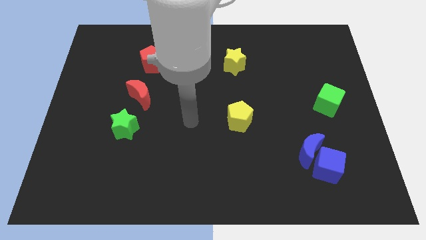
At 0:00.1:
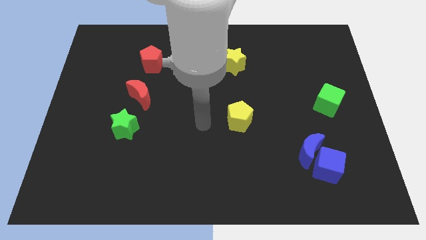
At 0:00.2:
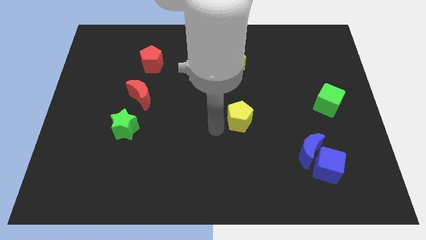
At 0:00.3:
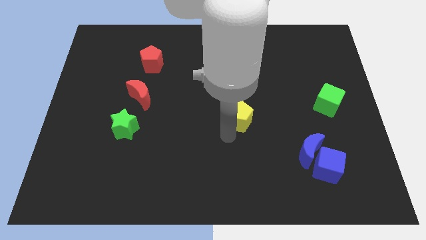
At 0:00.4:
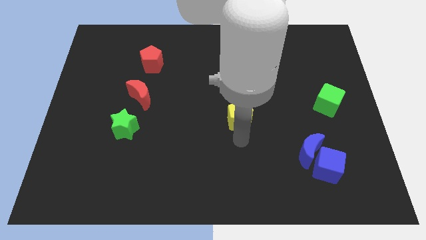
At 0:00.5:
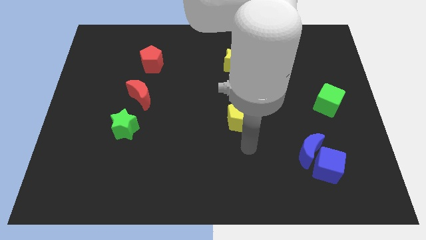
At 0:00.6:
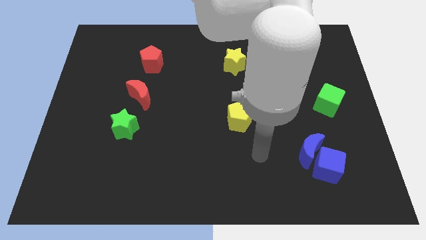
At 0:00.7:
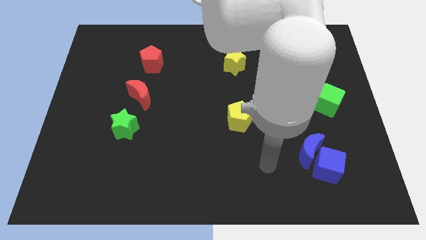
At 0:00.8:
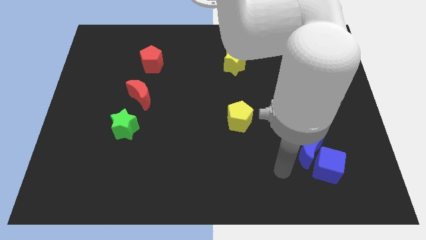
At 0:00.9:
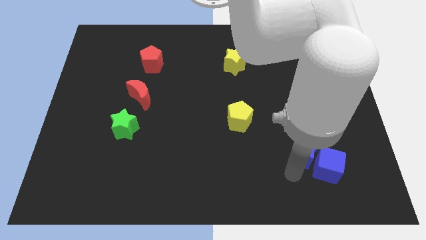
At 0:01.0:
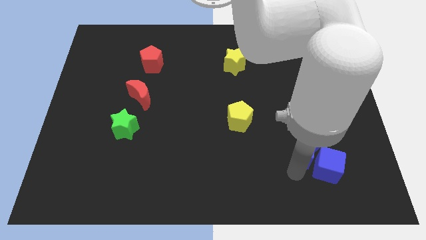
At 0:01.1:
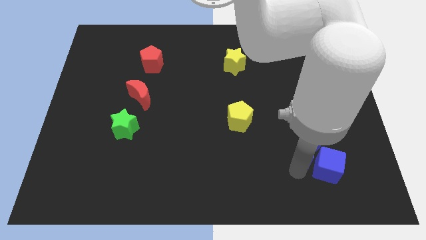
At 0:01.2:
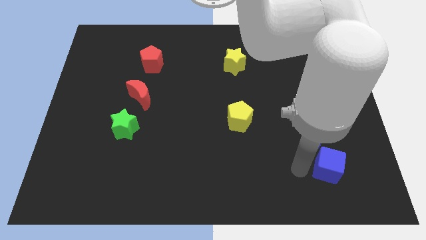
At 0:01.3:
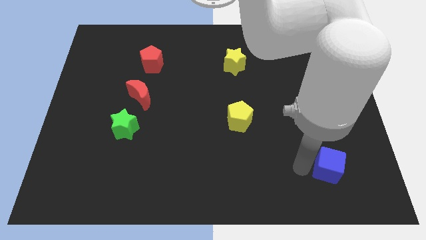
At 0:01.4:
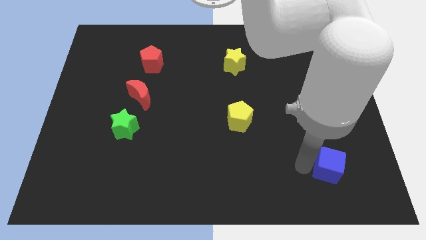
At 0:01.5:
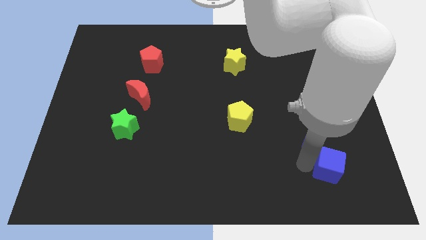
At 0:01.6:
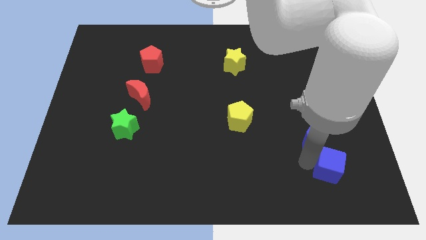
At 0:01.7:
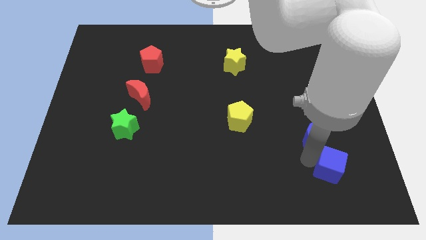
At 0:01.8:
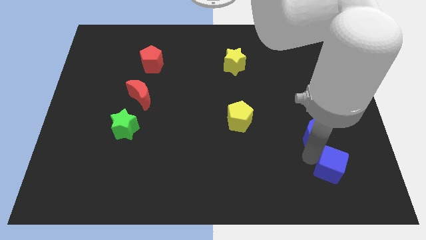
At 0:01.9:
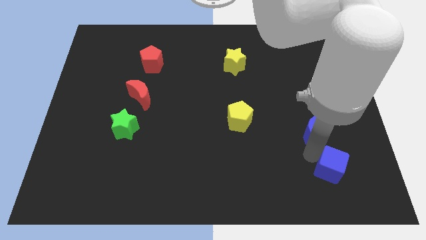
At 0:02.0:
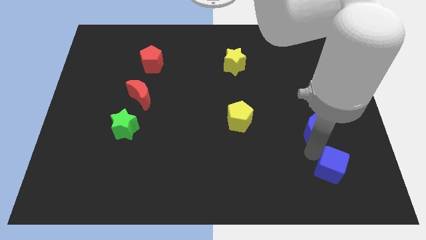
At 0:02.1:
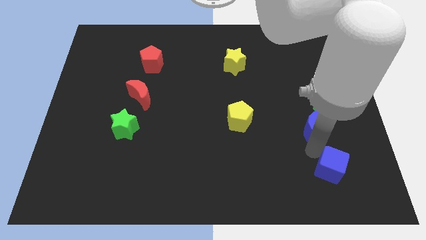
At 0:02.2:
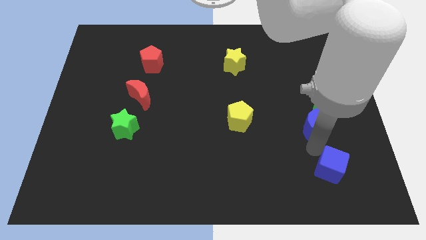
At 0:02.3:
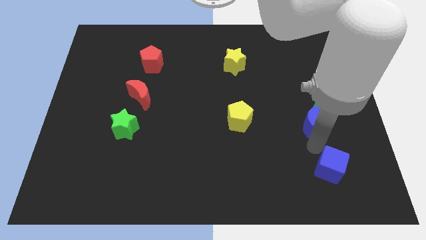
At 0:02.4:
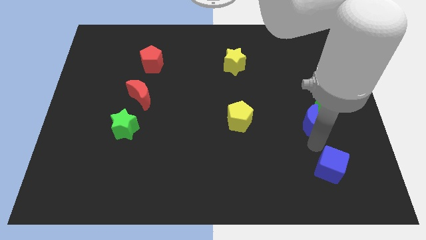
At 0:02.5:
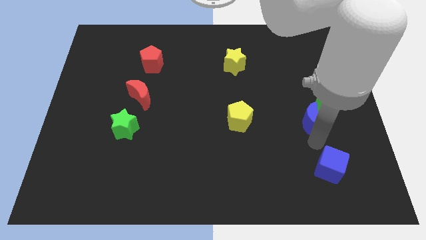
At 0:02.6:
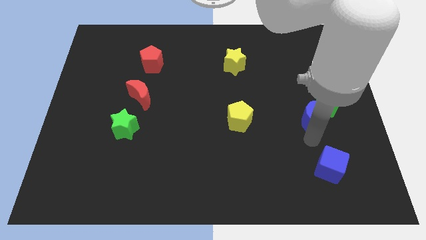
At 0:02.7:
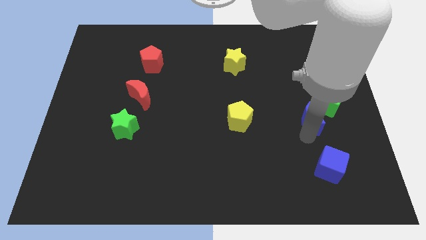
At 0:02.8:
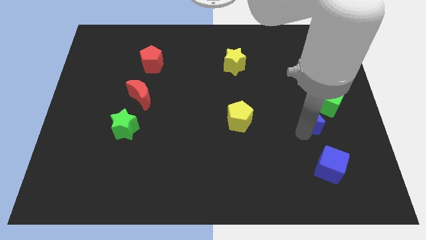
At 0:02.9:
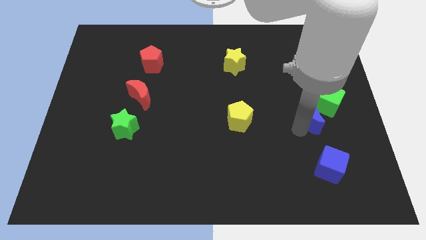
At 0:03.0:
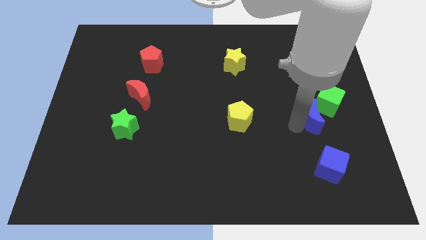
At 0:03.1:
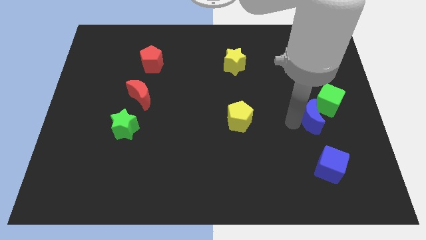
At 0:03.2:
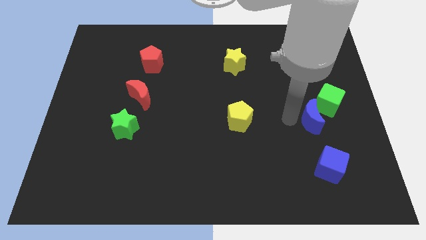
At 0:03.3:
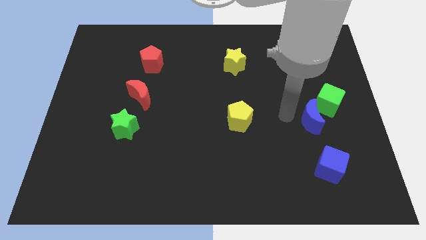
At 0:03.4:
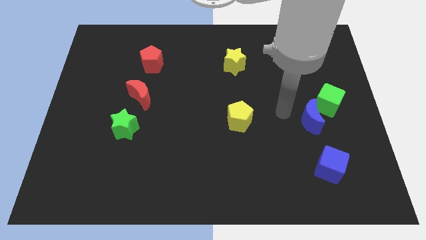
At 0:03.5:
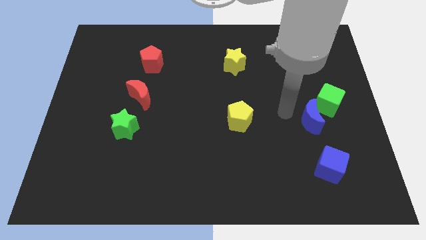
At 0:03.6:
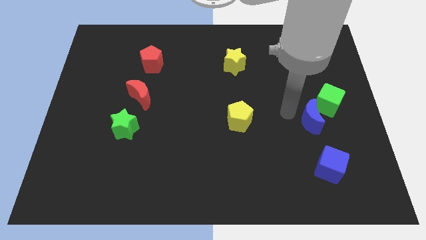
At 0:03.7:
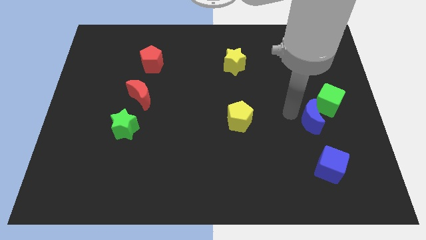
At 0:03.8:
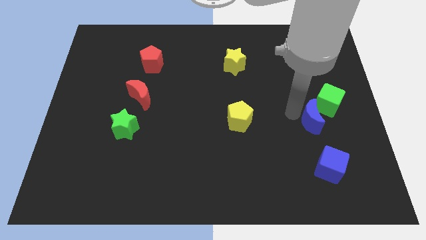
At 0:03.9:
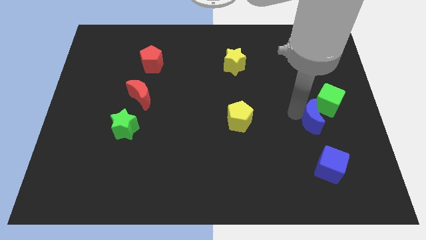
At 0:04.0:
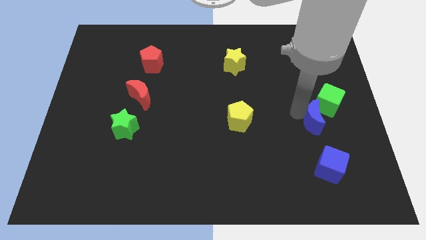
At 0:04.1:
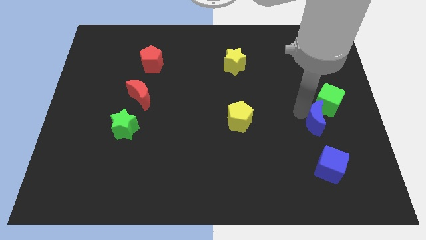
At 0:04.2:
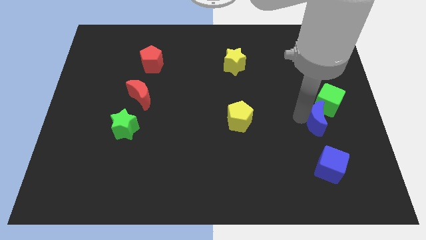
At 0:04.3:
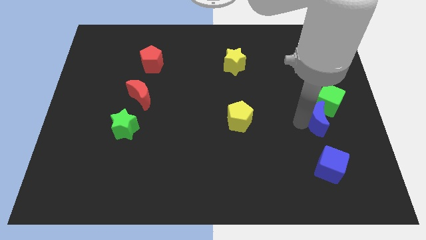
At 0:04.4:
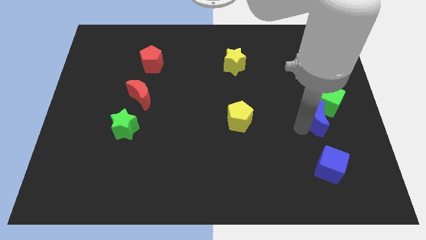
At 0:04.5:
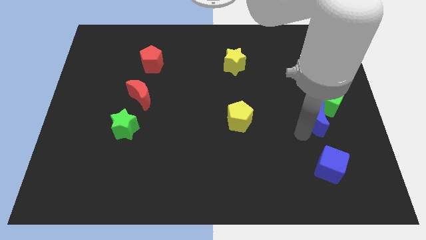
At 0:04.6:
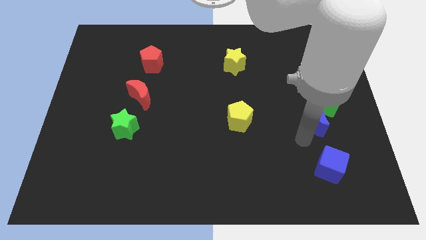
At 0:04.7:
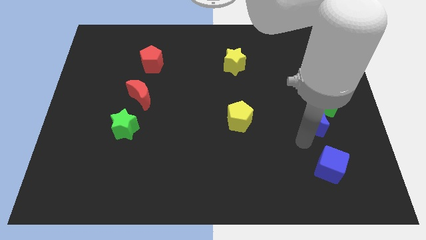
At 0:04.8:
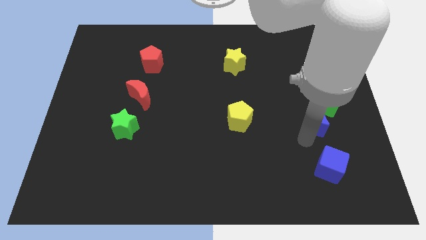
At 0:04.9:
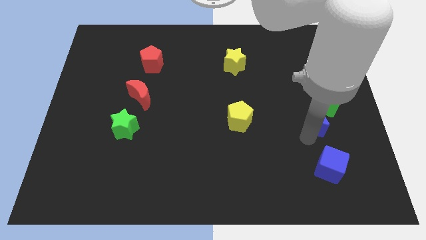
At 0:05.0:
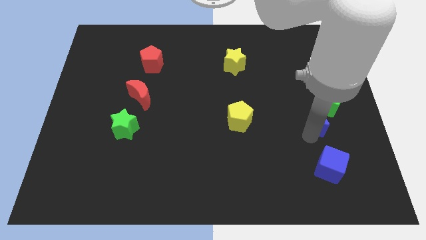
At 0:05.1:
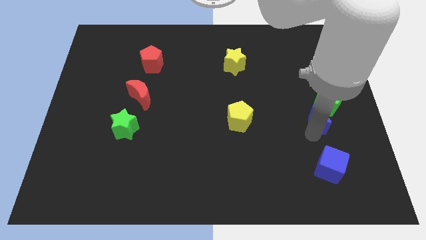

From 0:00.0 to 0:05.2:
put the blue moon close to the green cube

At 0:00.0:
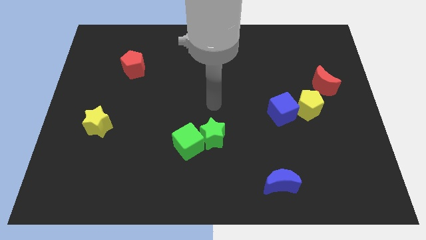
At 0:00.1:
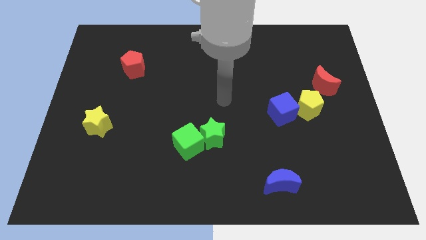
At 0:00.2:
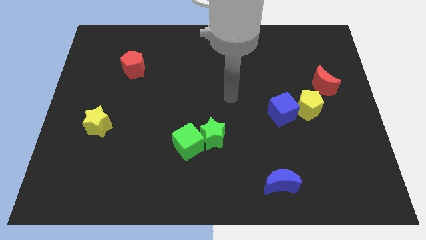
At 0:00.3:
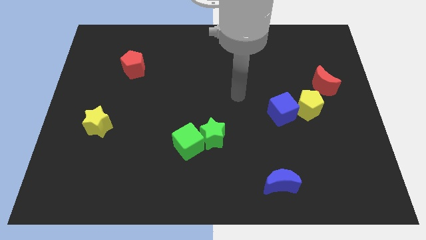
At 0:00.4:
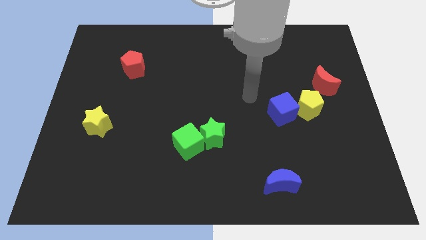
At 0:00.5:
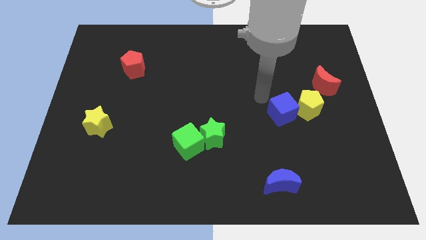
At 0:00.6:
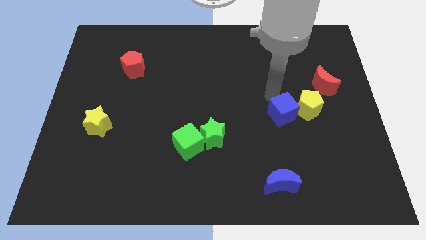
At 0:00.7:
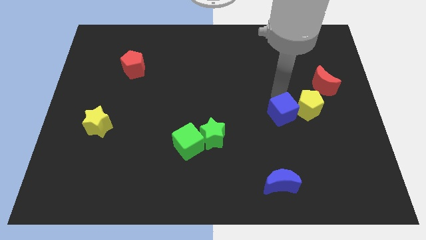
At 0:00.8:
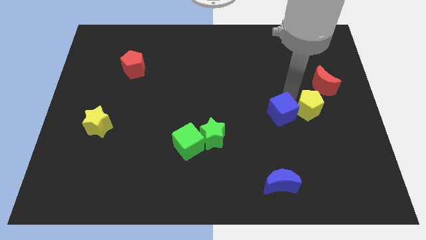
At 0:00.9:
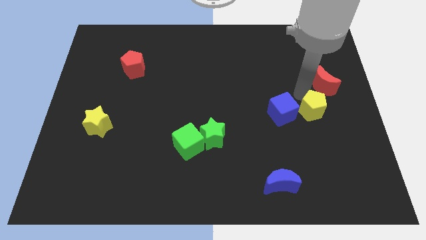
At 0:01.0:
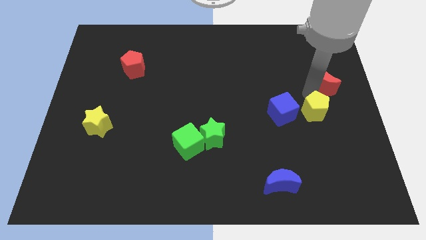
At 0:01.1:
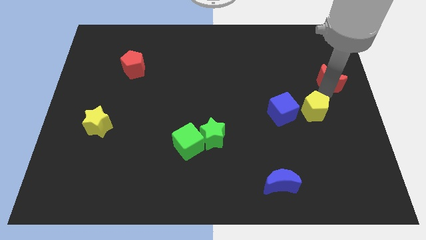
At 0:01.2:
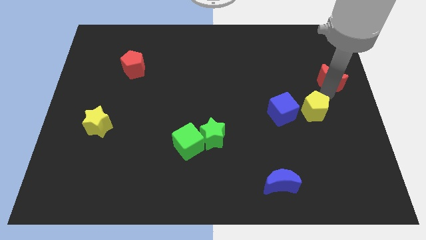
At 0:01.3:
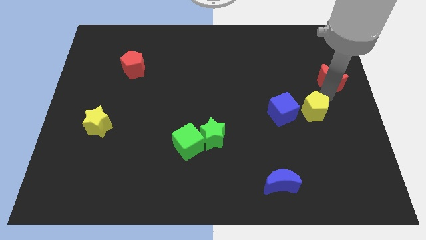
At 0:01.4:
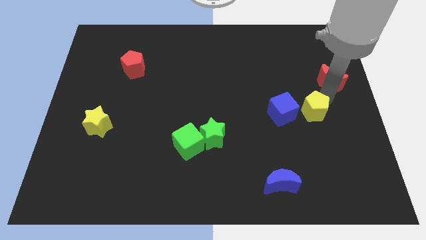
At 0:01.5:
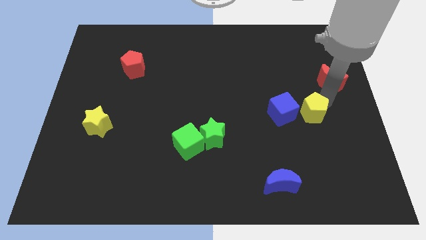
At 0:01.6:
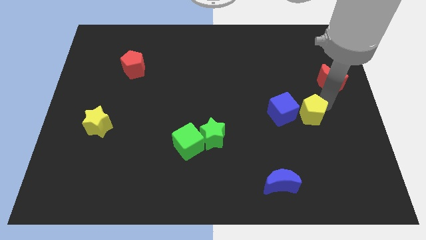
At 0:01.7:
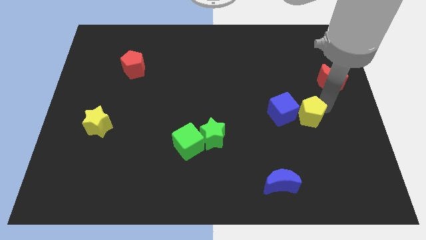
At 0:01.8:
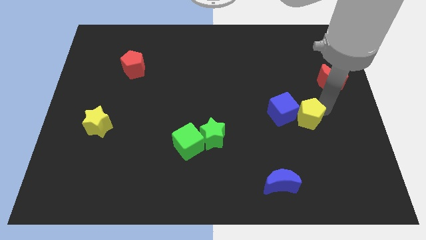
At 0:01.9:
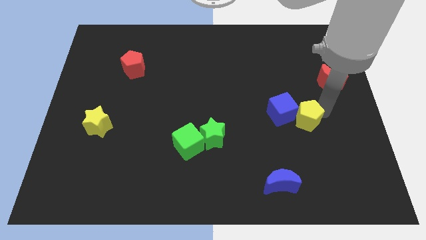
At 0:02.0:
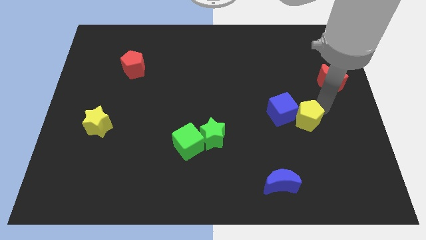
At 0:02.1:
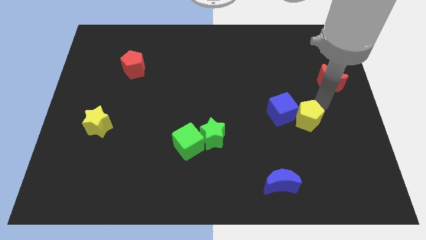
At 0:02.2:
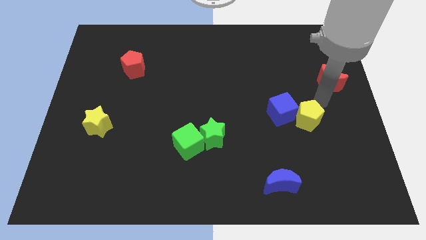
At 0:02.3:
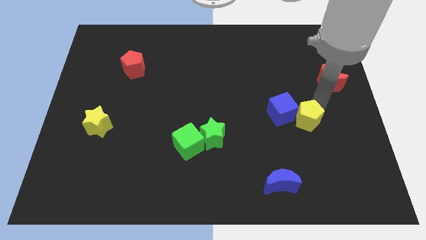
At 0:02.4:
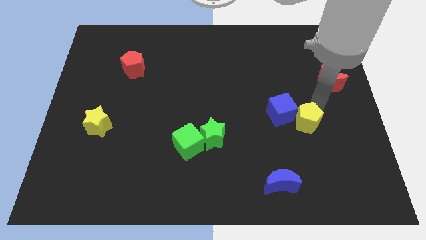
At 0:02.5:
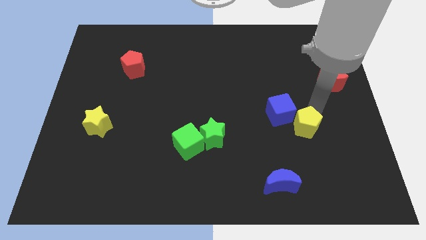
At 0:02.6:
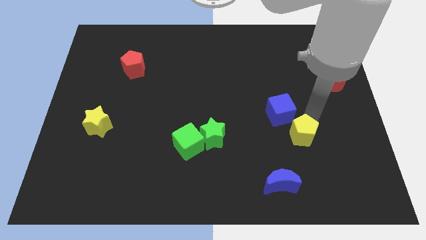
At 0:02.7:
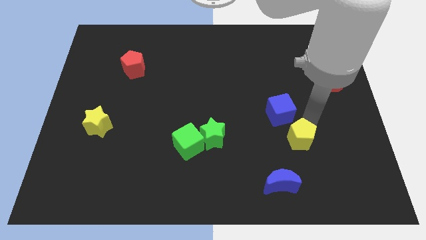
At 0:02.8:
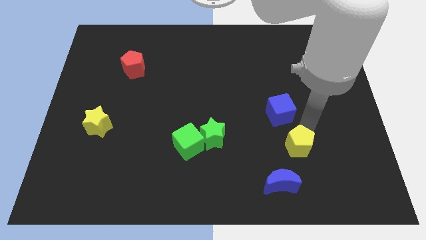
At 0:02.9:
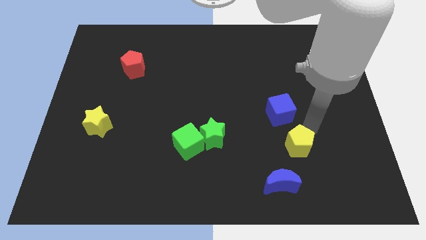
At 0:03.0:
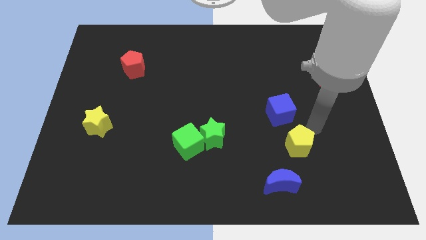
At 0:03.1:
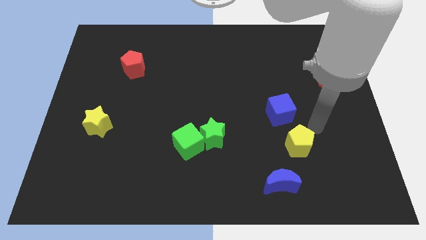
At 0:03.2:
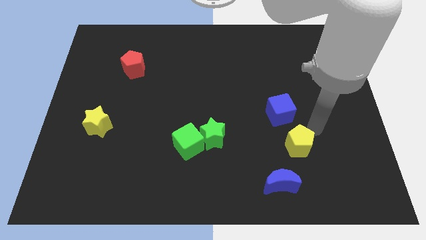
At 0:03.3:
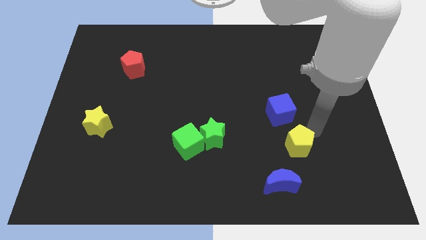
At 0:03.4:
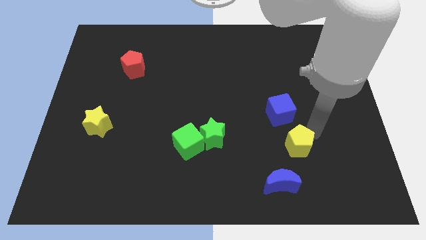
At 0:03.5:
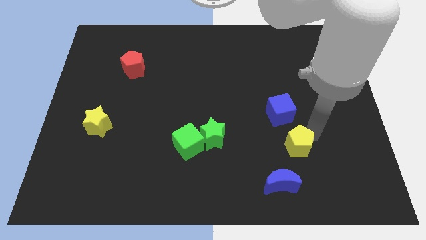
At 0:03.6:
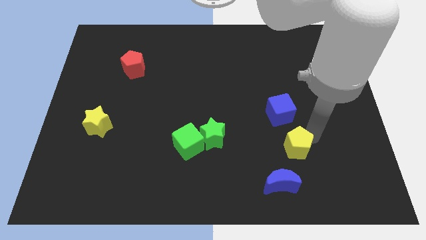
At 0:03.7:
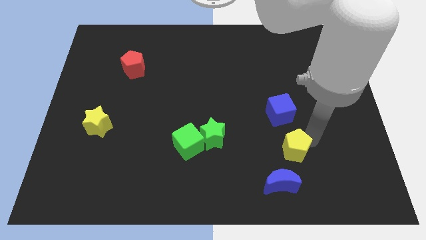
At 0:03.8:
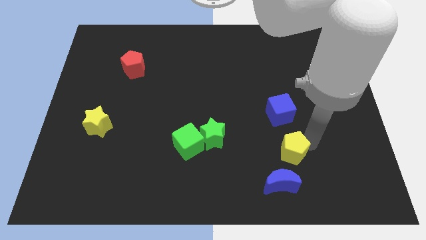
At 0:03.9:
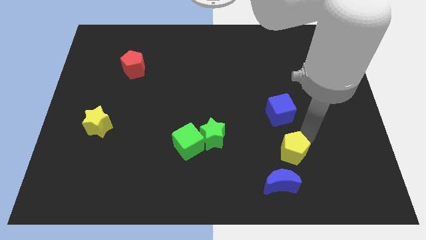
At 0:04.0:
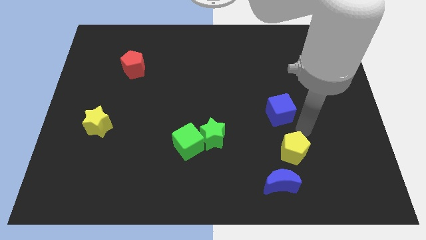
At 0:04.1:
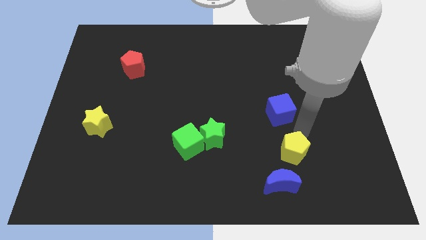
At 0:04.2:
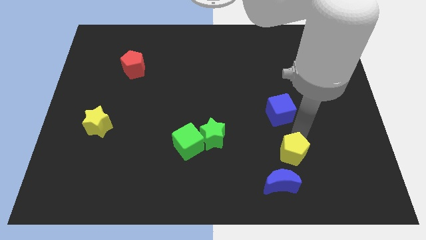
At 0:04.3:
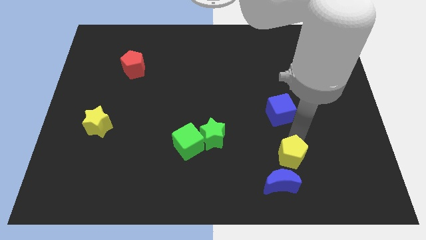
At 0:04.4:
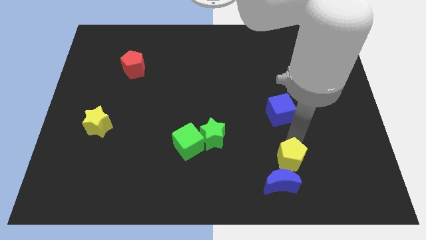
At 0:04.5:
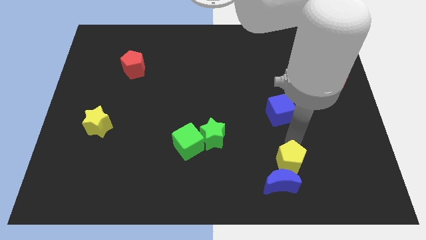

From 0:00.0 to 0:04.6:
slide the yellow pentagon next to the blue moon
